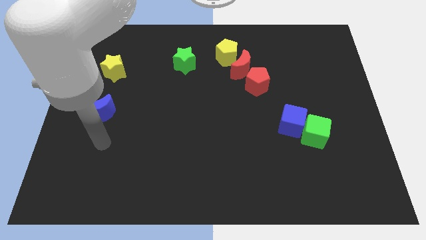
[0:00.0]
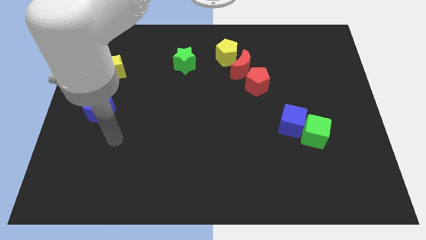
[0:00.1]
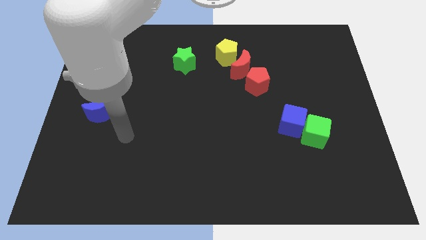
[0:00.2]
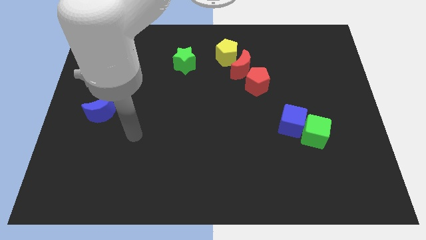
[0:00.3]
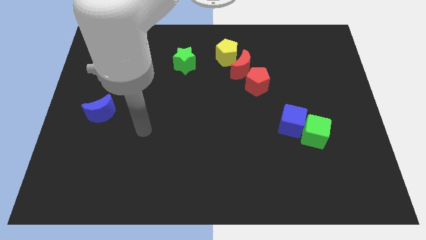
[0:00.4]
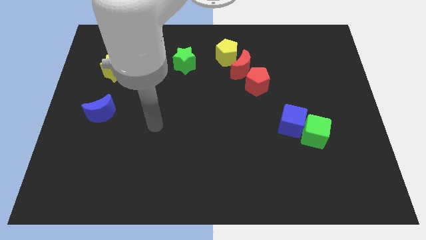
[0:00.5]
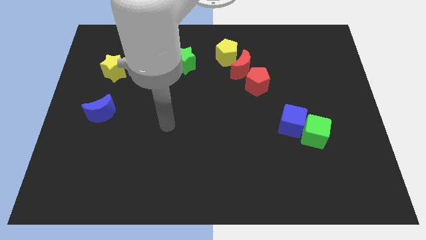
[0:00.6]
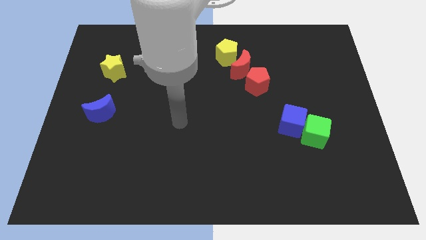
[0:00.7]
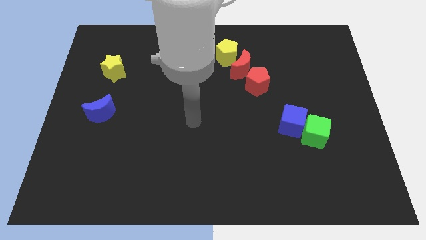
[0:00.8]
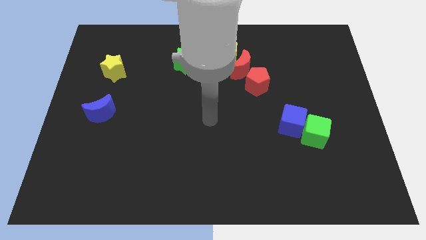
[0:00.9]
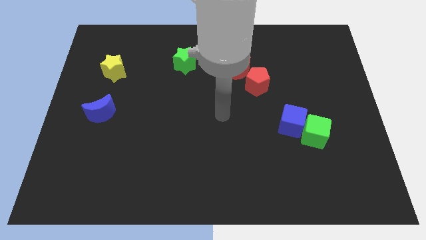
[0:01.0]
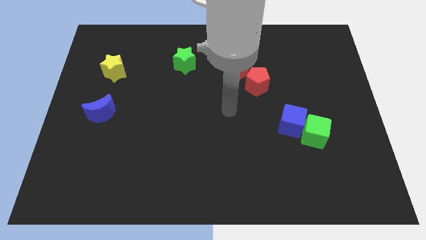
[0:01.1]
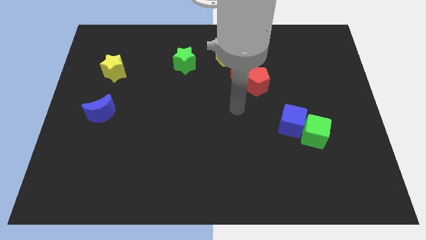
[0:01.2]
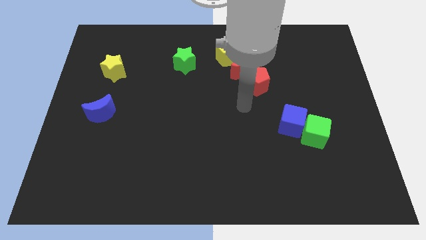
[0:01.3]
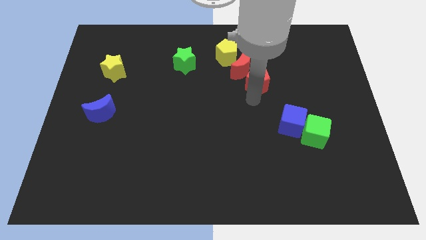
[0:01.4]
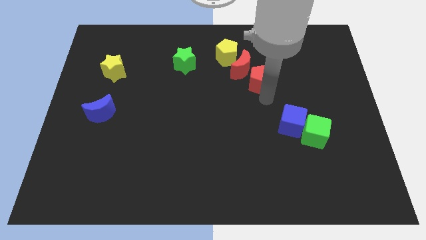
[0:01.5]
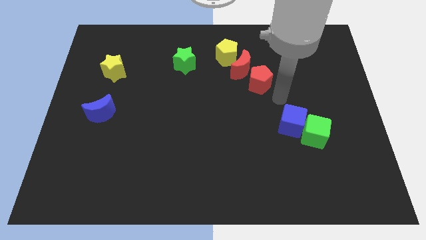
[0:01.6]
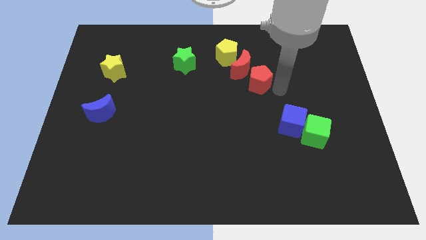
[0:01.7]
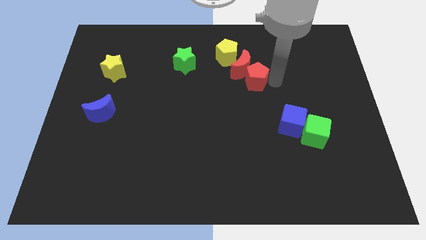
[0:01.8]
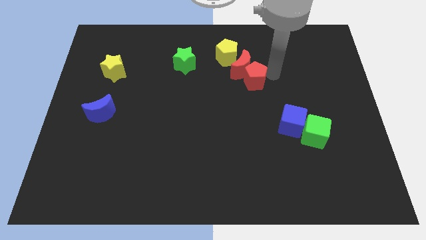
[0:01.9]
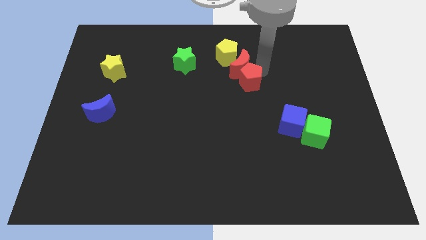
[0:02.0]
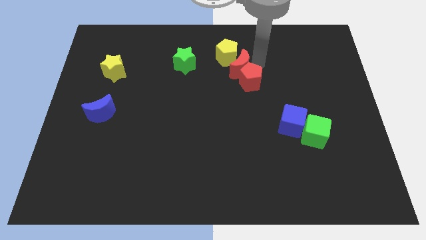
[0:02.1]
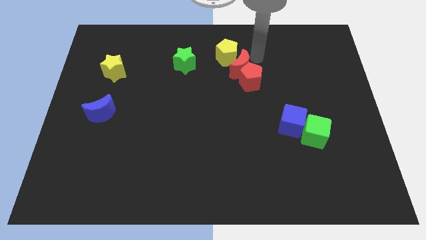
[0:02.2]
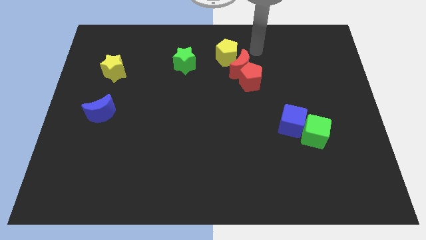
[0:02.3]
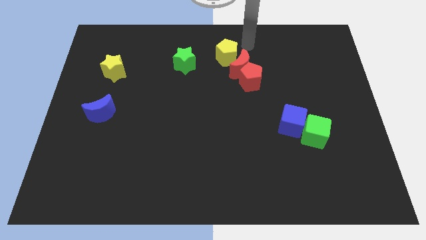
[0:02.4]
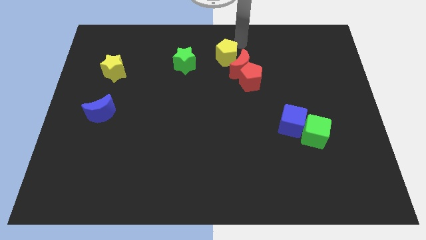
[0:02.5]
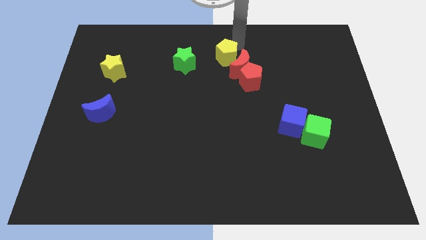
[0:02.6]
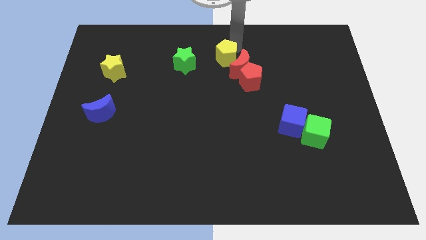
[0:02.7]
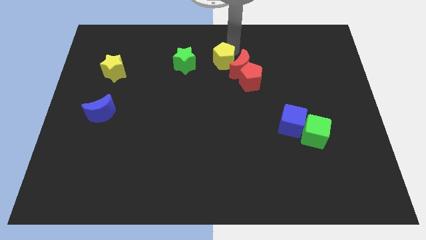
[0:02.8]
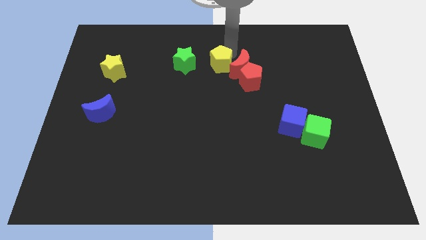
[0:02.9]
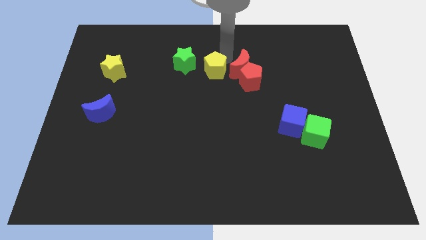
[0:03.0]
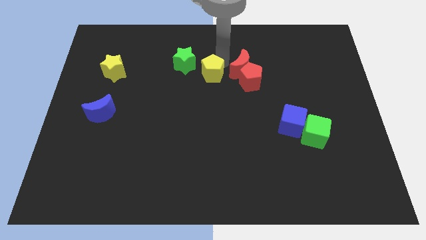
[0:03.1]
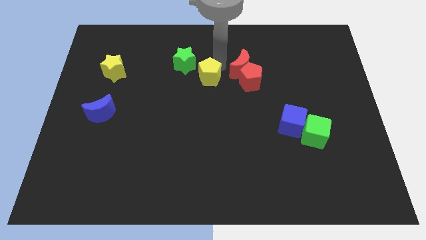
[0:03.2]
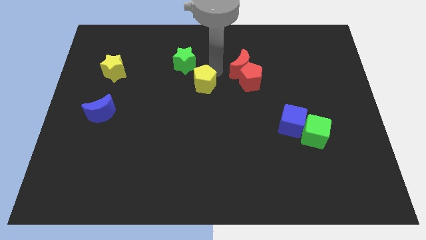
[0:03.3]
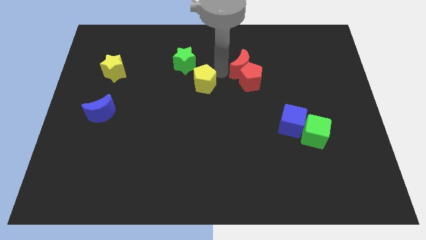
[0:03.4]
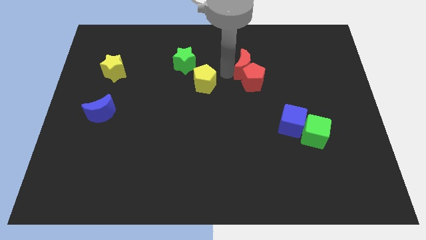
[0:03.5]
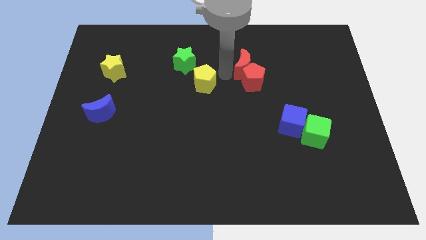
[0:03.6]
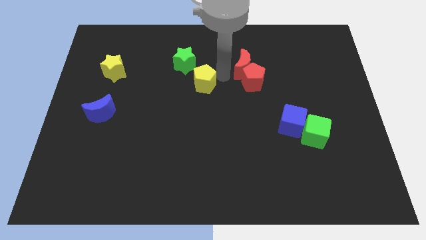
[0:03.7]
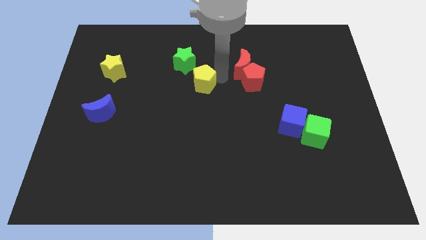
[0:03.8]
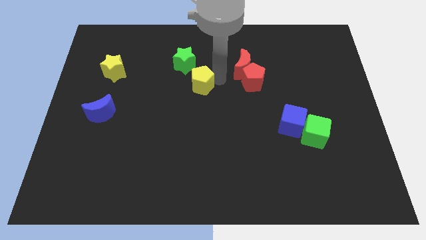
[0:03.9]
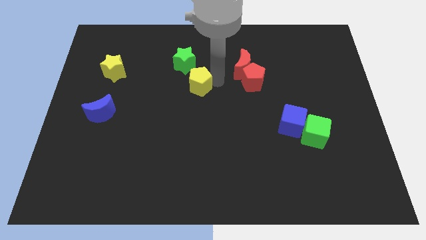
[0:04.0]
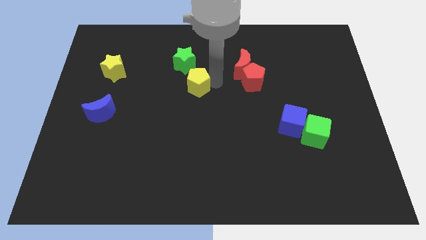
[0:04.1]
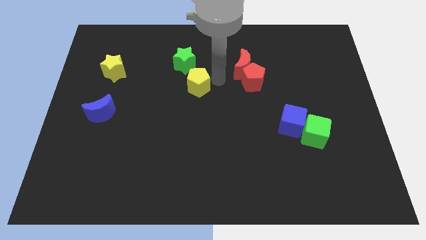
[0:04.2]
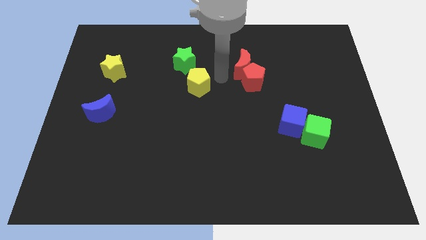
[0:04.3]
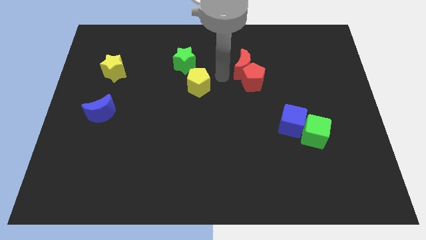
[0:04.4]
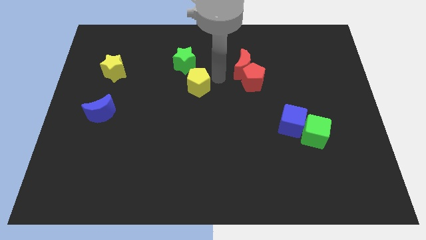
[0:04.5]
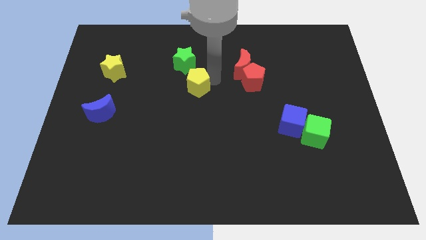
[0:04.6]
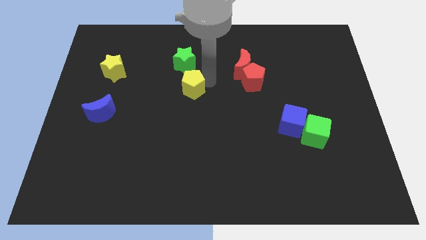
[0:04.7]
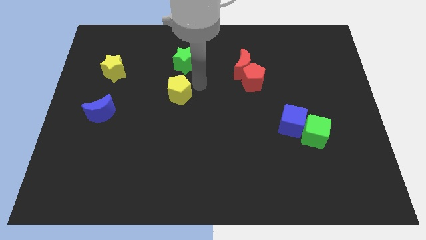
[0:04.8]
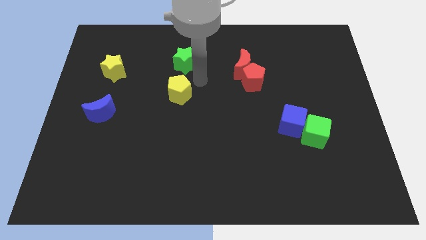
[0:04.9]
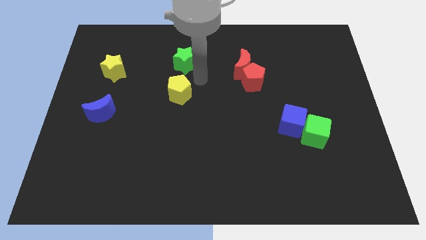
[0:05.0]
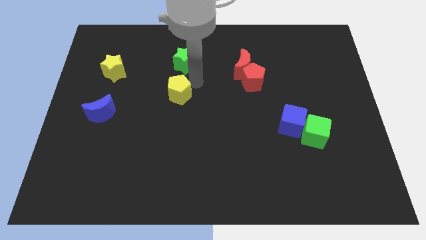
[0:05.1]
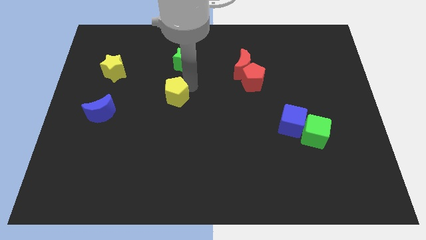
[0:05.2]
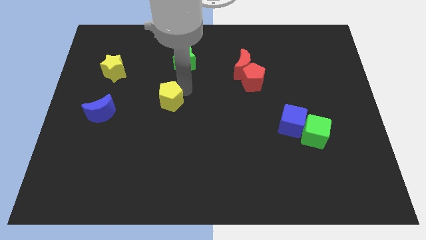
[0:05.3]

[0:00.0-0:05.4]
slide the yellow pentagon down and then left

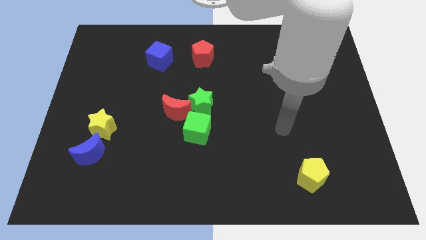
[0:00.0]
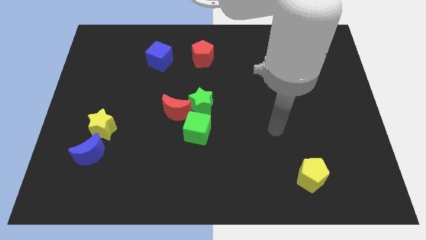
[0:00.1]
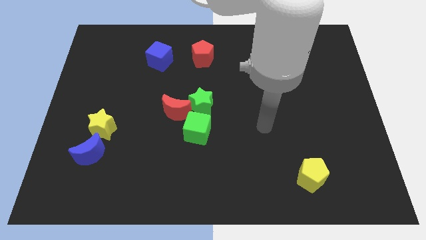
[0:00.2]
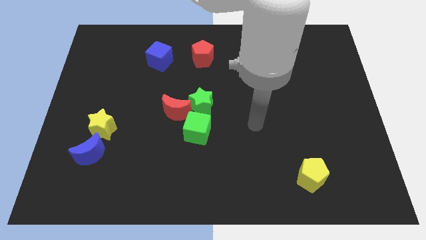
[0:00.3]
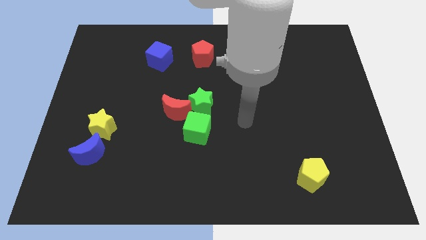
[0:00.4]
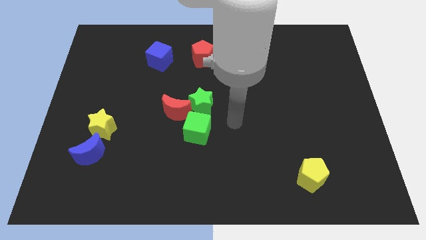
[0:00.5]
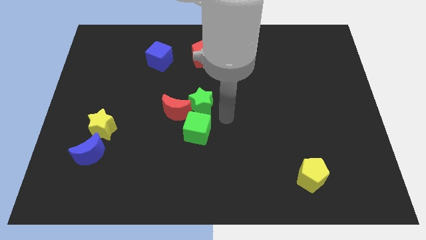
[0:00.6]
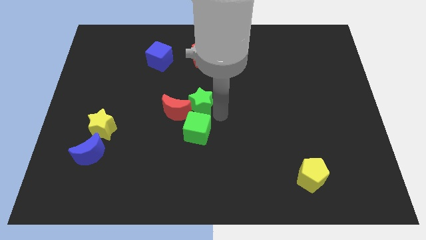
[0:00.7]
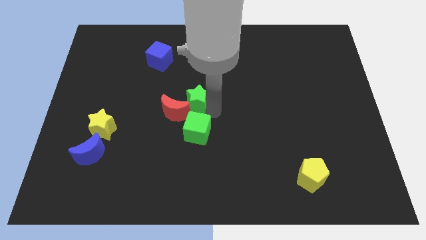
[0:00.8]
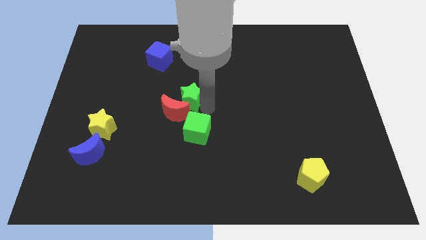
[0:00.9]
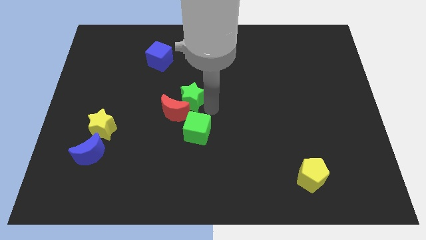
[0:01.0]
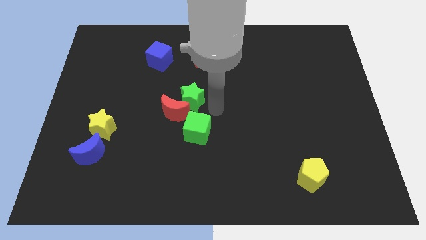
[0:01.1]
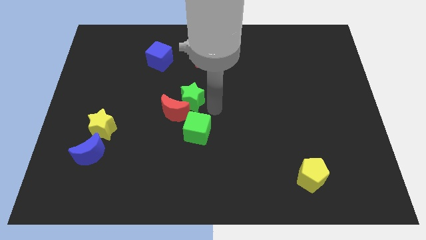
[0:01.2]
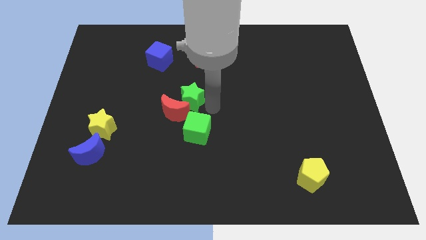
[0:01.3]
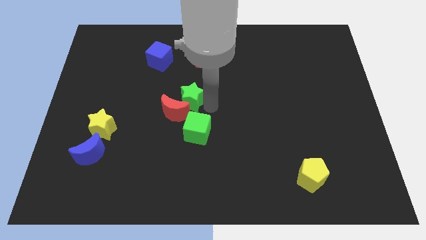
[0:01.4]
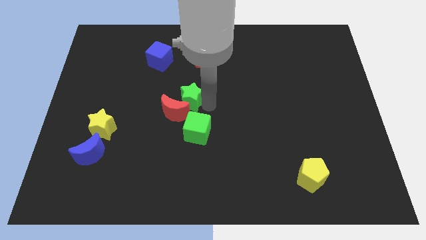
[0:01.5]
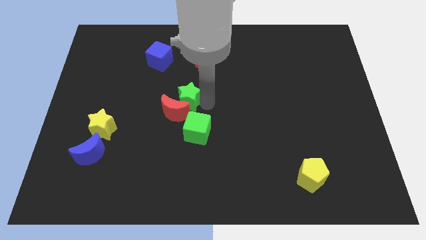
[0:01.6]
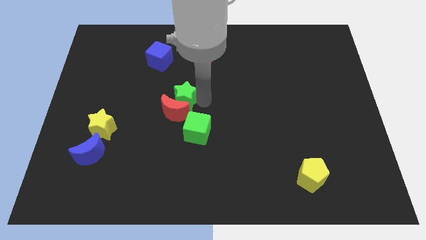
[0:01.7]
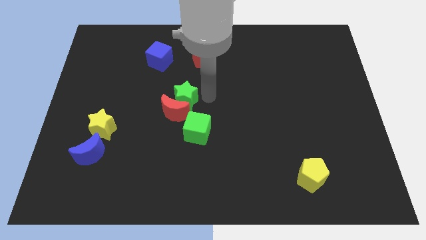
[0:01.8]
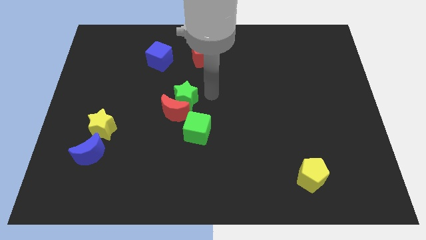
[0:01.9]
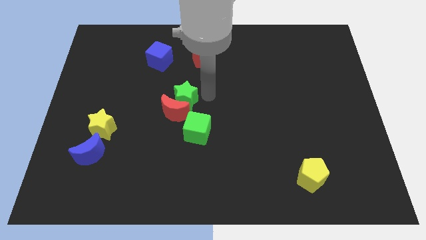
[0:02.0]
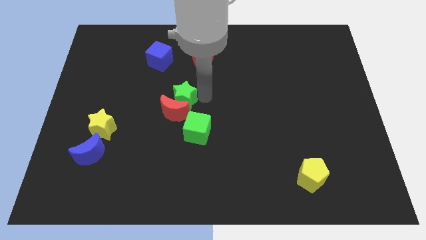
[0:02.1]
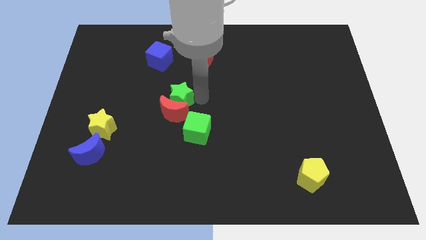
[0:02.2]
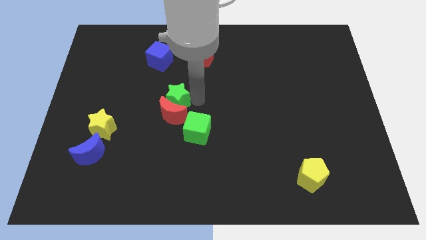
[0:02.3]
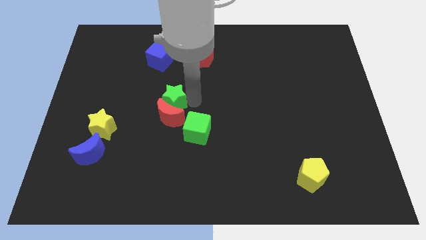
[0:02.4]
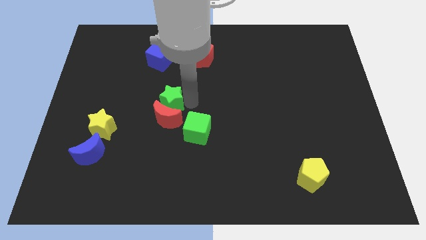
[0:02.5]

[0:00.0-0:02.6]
slightly slide the green star to the left

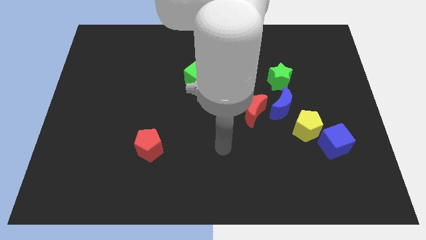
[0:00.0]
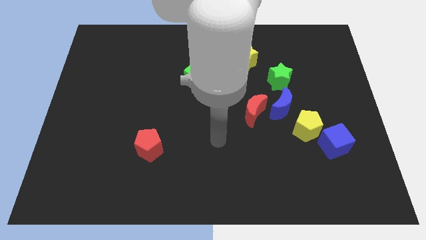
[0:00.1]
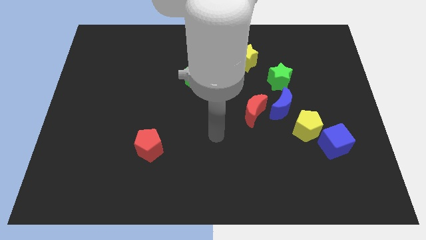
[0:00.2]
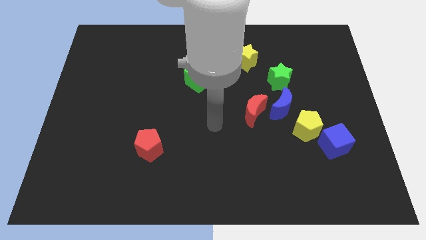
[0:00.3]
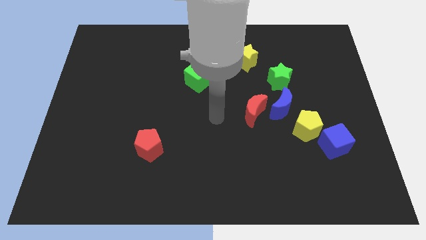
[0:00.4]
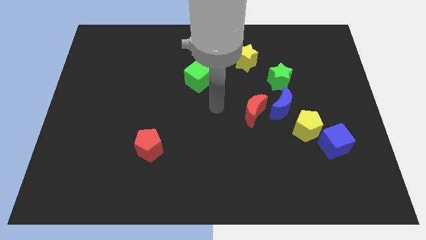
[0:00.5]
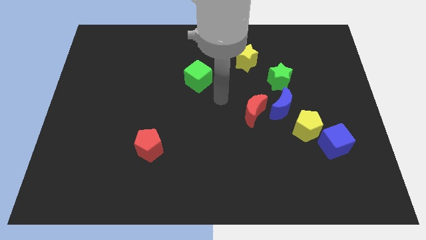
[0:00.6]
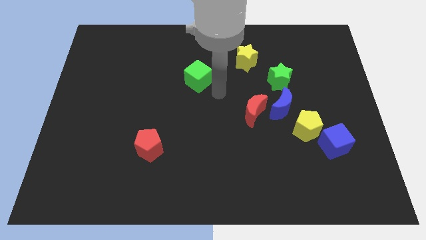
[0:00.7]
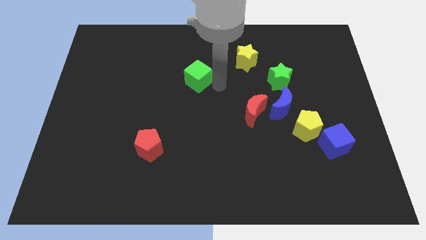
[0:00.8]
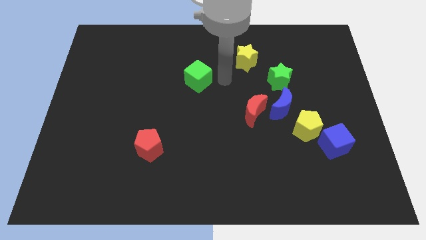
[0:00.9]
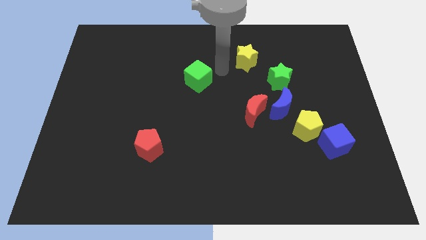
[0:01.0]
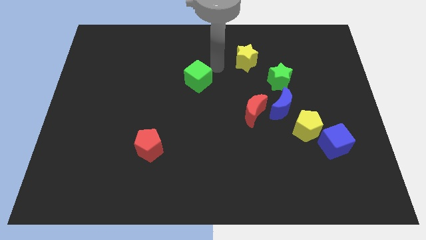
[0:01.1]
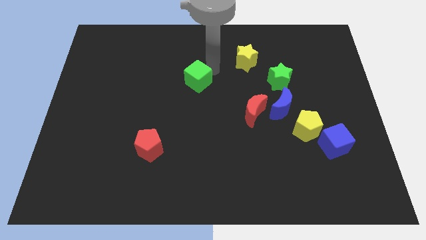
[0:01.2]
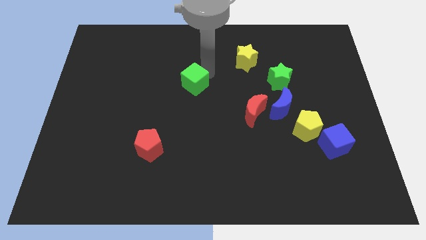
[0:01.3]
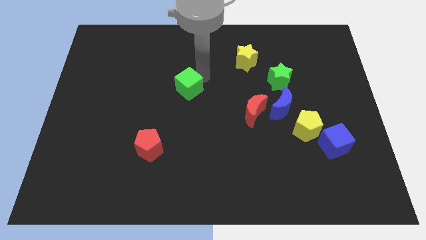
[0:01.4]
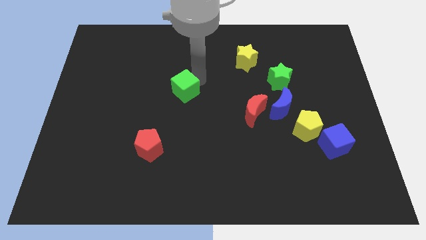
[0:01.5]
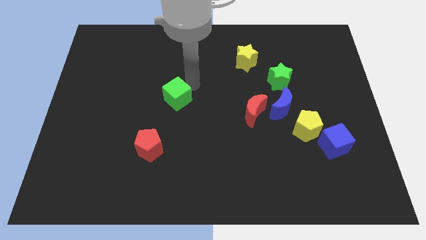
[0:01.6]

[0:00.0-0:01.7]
slide the green cube a little bit downwards and then left
